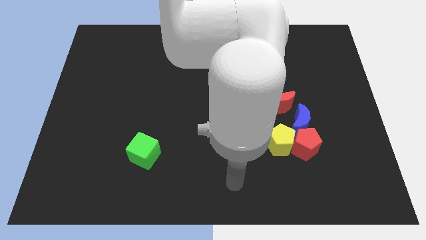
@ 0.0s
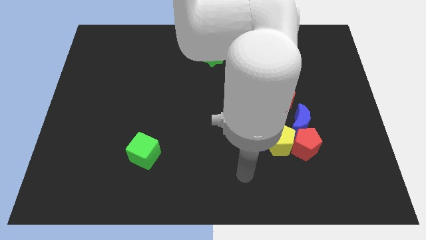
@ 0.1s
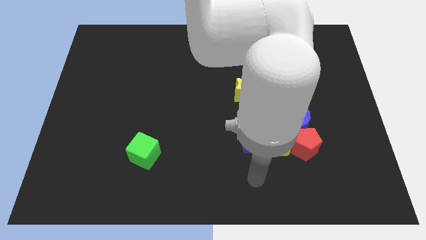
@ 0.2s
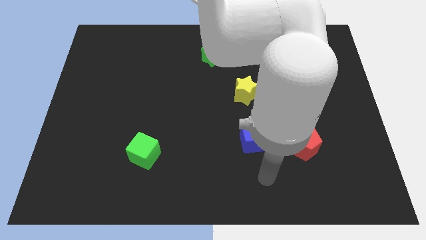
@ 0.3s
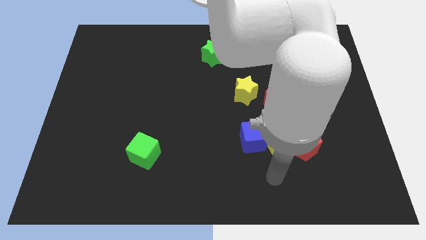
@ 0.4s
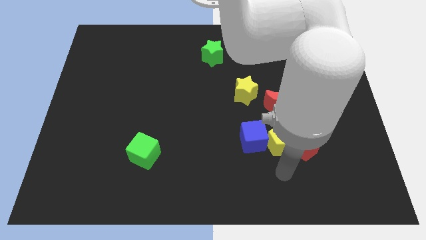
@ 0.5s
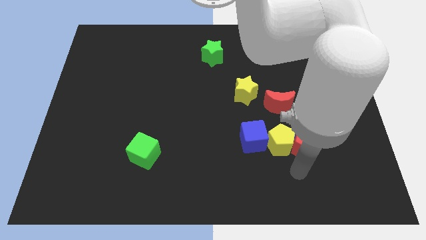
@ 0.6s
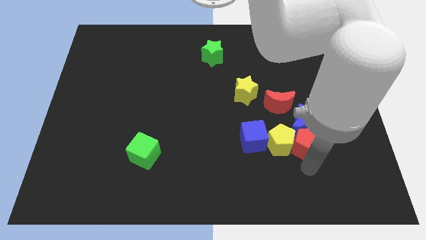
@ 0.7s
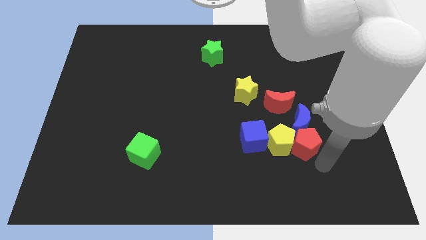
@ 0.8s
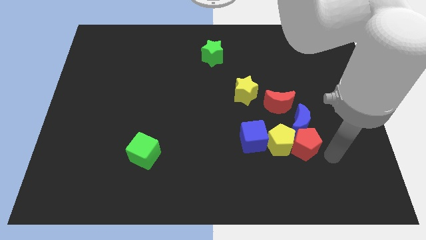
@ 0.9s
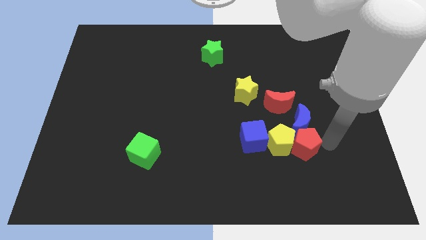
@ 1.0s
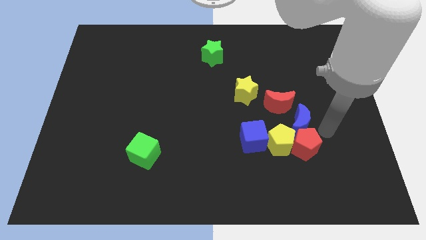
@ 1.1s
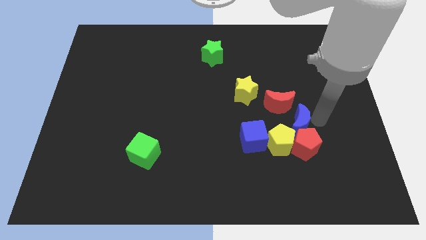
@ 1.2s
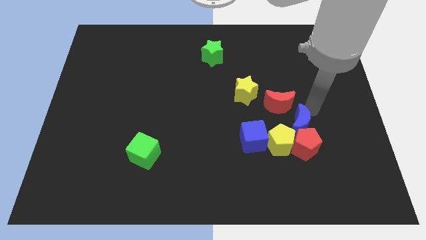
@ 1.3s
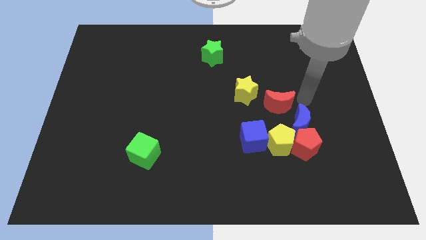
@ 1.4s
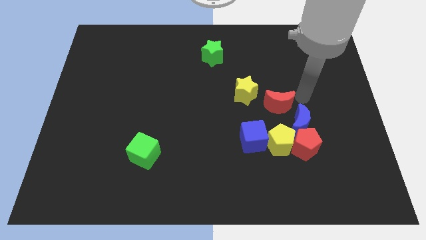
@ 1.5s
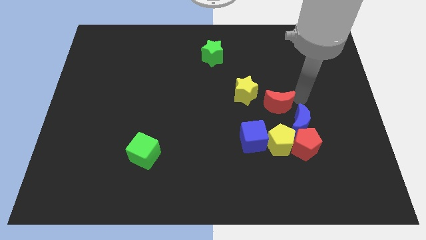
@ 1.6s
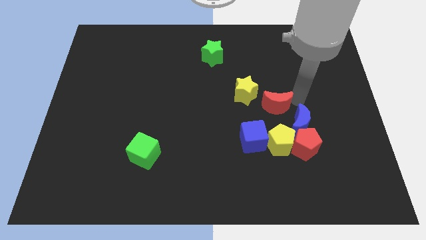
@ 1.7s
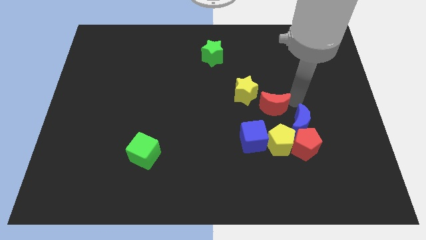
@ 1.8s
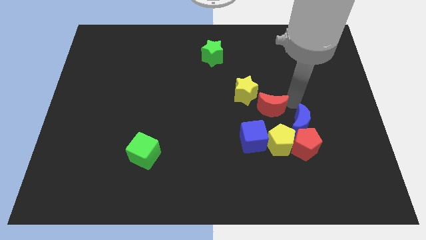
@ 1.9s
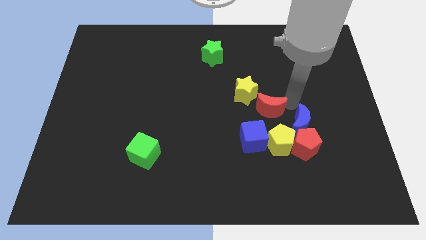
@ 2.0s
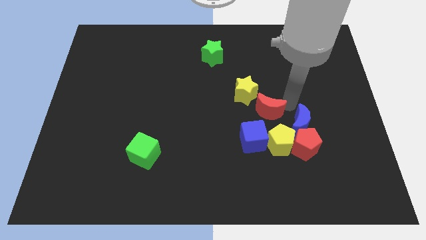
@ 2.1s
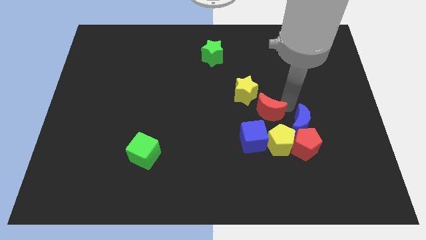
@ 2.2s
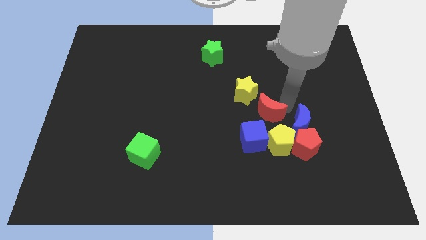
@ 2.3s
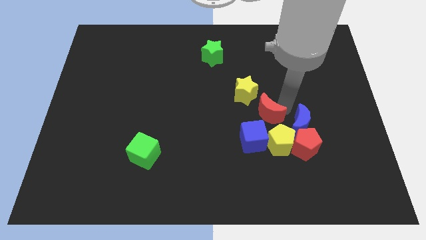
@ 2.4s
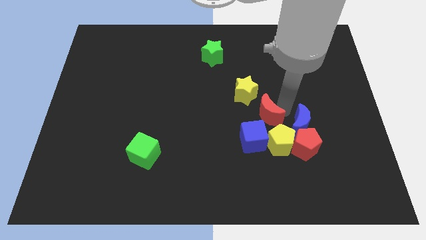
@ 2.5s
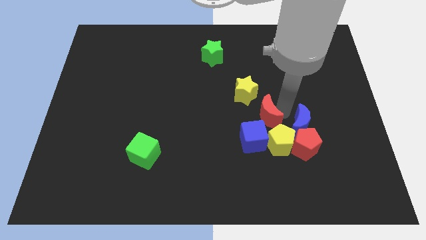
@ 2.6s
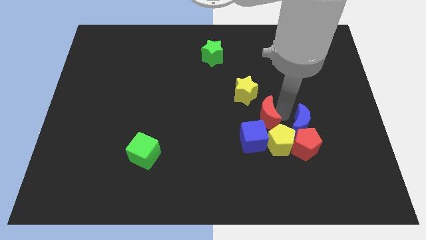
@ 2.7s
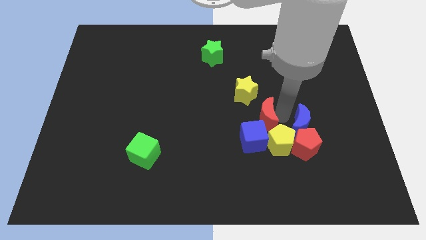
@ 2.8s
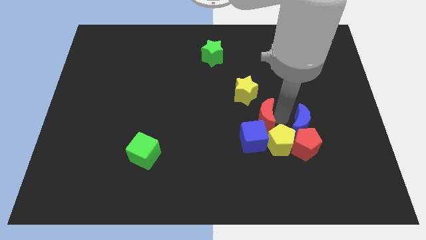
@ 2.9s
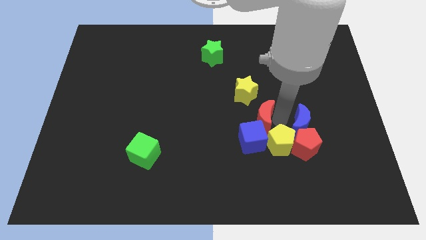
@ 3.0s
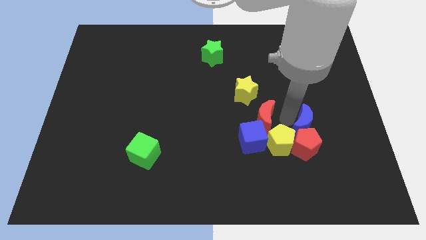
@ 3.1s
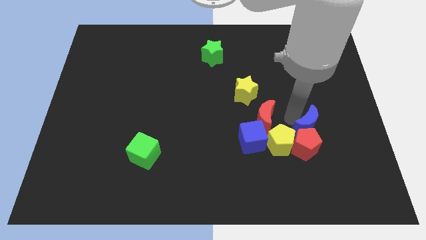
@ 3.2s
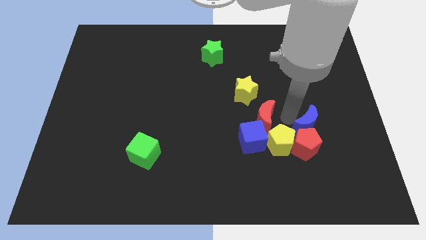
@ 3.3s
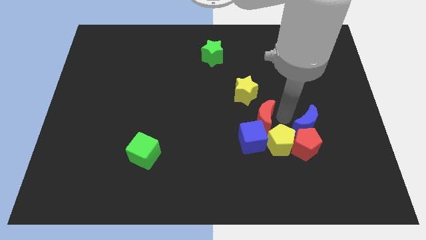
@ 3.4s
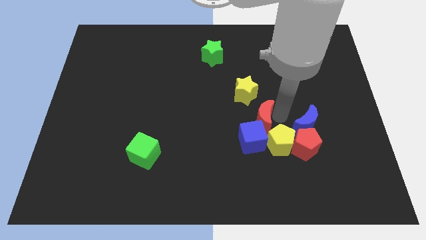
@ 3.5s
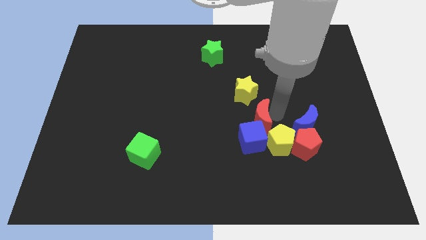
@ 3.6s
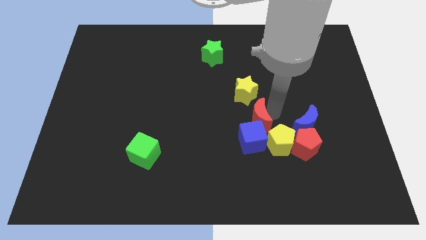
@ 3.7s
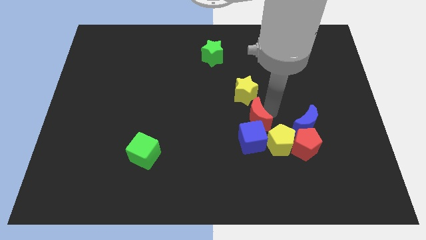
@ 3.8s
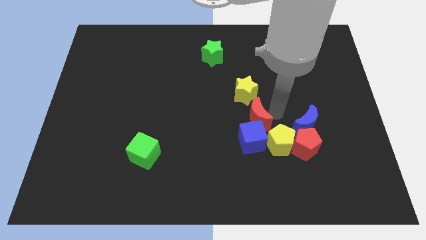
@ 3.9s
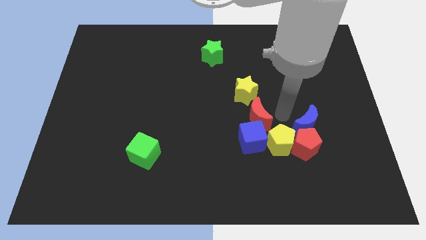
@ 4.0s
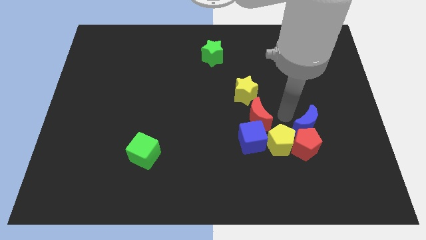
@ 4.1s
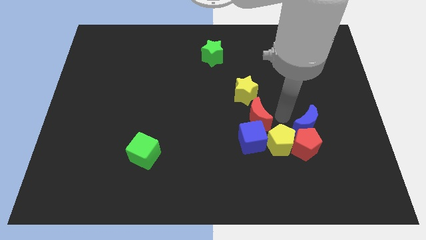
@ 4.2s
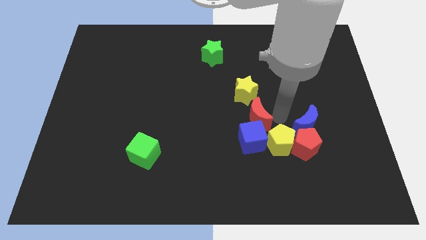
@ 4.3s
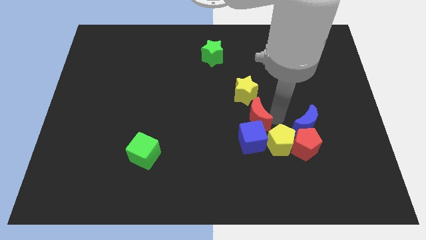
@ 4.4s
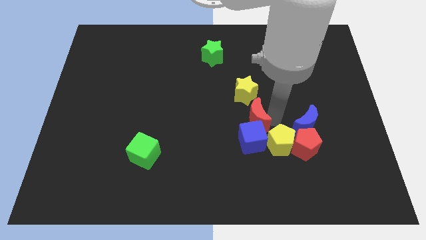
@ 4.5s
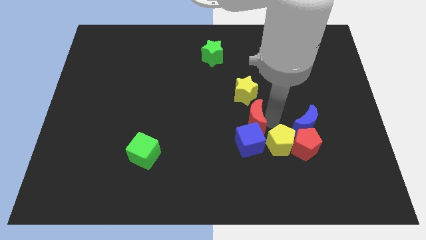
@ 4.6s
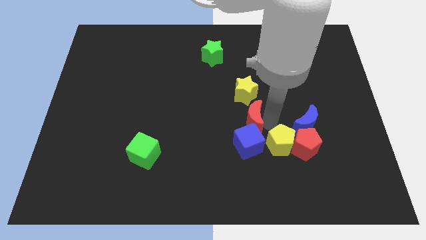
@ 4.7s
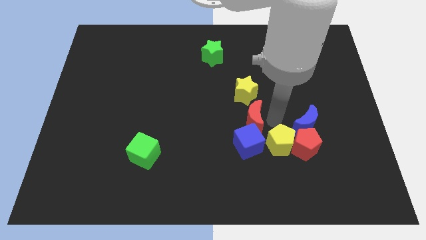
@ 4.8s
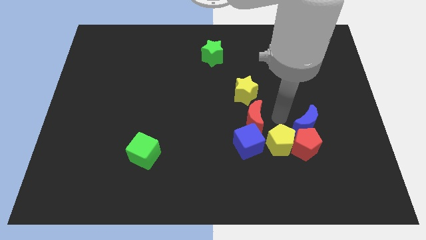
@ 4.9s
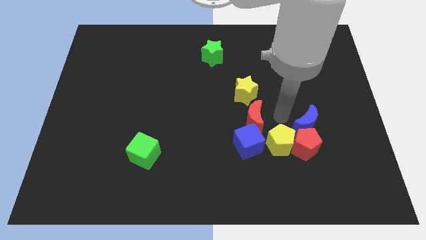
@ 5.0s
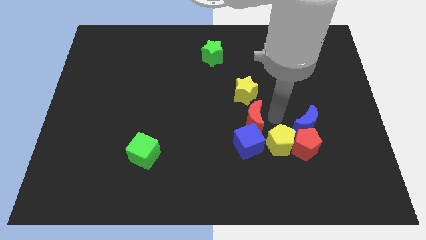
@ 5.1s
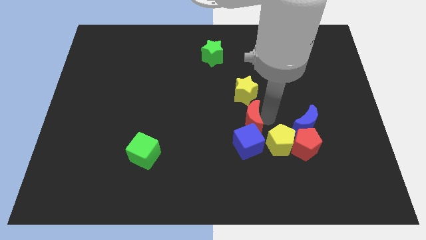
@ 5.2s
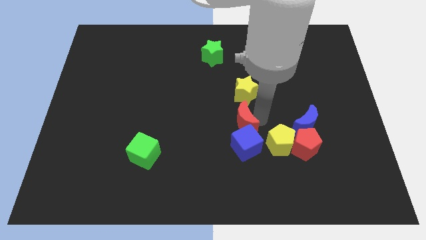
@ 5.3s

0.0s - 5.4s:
push the red moon diagonally up and to the left of the blue cube

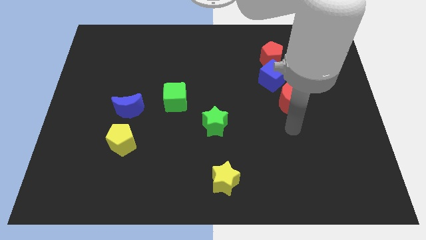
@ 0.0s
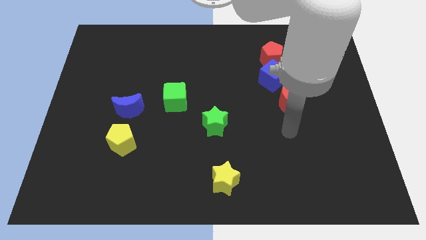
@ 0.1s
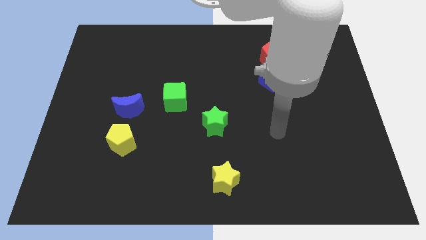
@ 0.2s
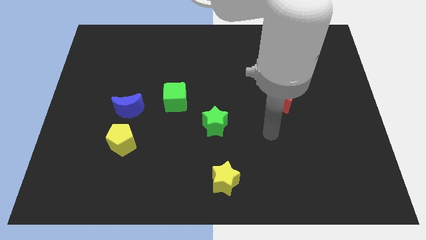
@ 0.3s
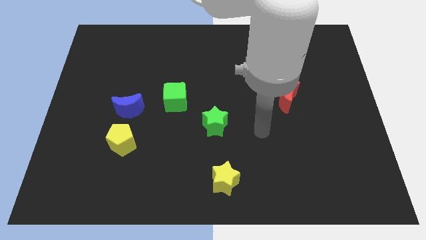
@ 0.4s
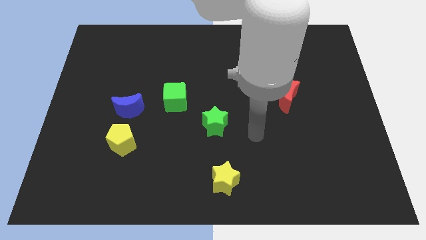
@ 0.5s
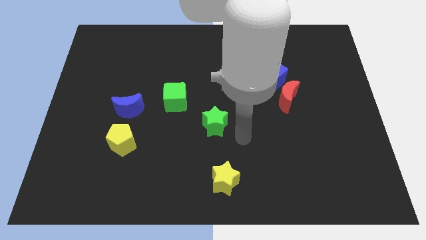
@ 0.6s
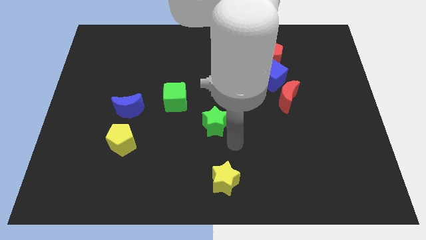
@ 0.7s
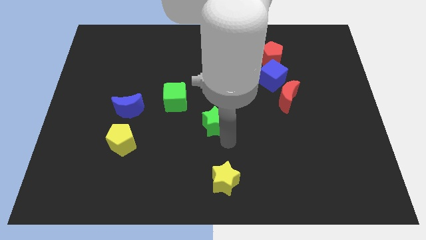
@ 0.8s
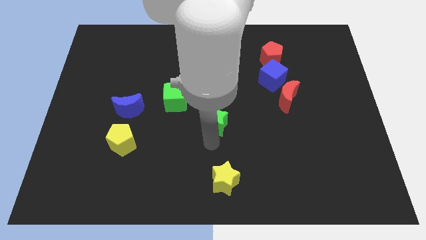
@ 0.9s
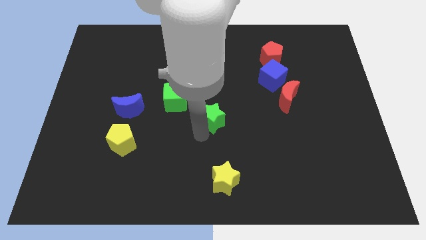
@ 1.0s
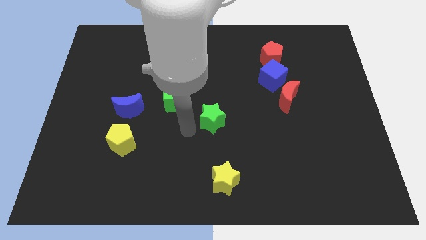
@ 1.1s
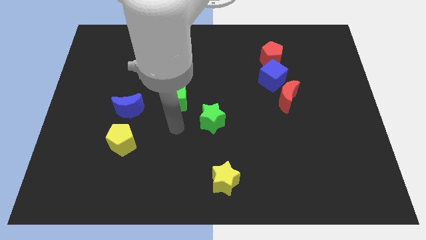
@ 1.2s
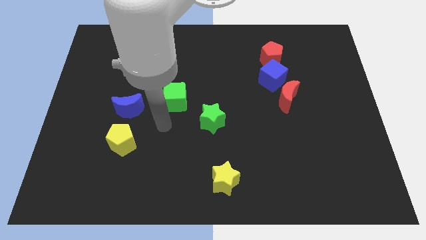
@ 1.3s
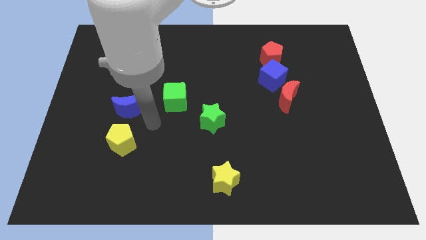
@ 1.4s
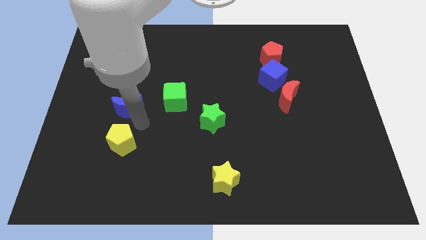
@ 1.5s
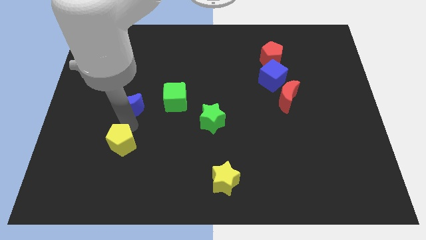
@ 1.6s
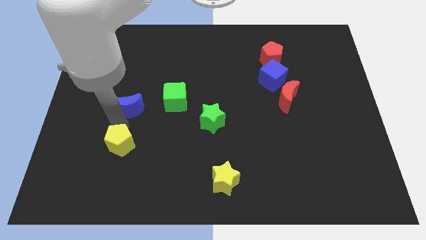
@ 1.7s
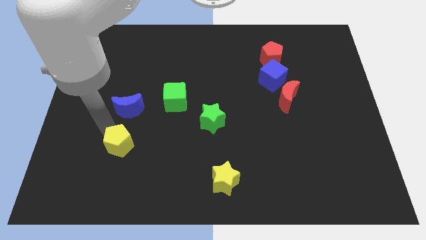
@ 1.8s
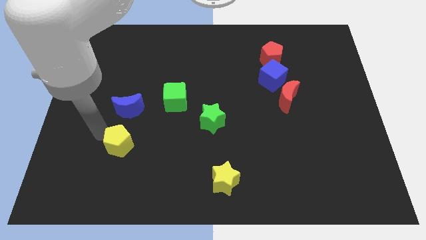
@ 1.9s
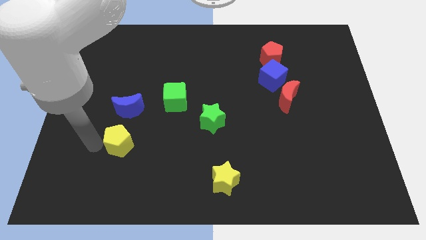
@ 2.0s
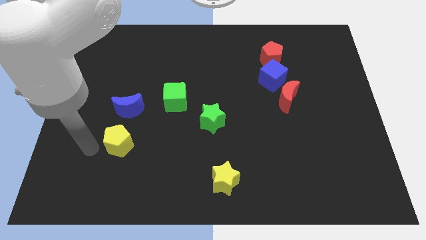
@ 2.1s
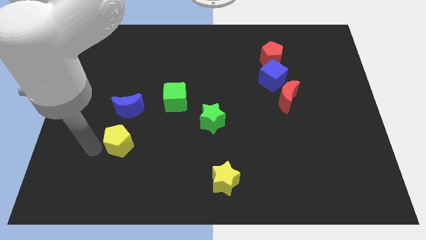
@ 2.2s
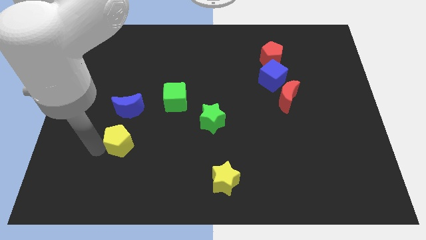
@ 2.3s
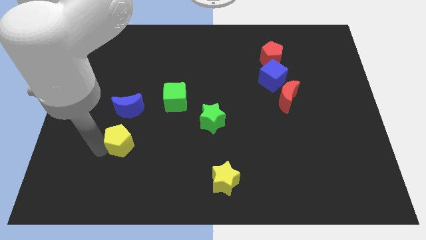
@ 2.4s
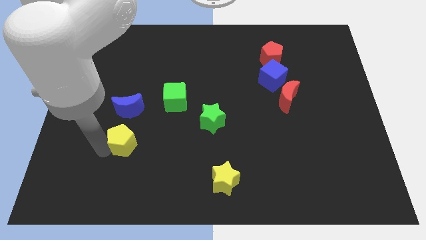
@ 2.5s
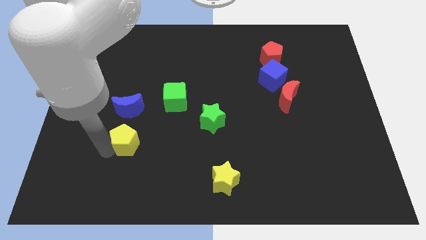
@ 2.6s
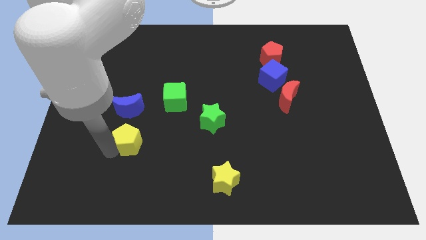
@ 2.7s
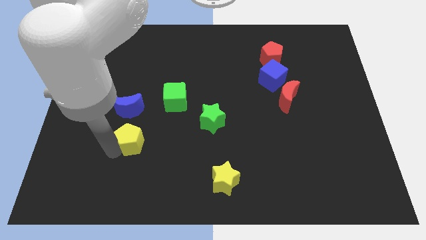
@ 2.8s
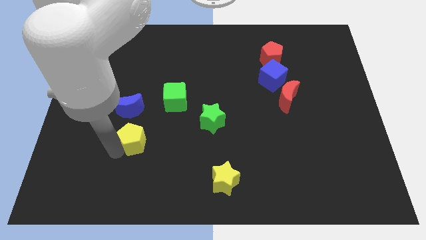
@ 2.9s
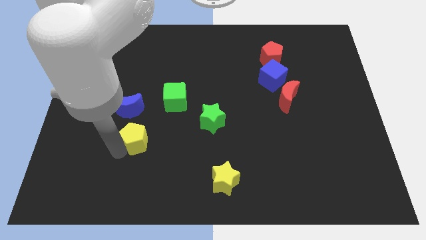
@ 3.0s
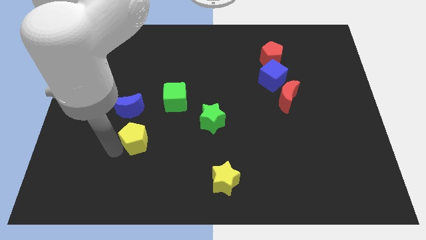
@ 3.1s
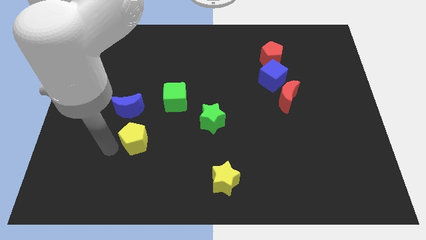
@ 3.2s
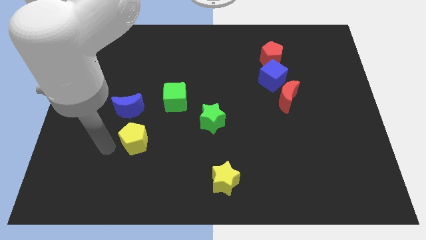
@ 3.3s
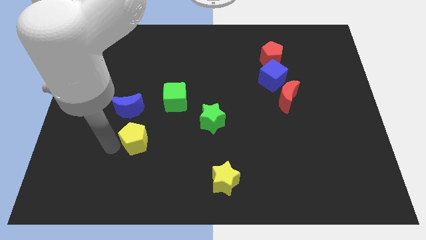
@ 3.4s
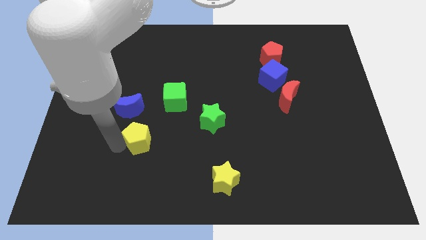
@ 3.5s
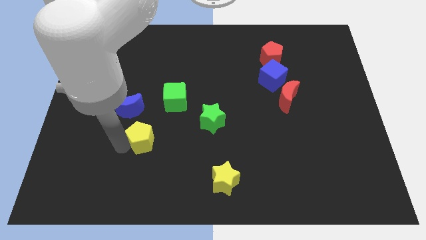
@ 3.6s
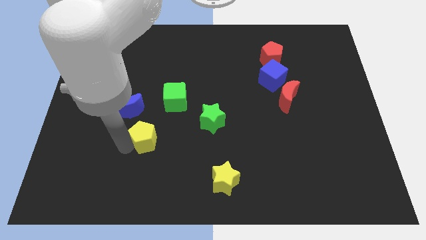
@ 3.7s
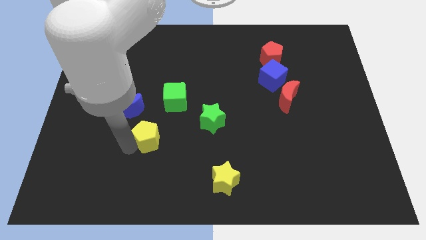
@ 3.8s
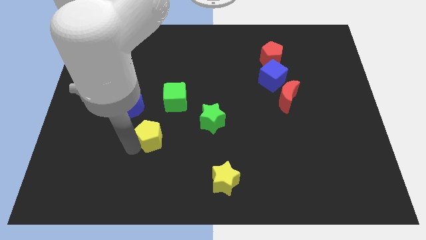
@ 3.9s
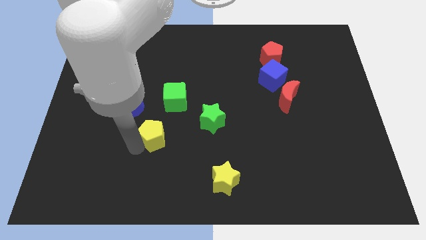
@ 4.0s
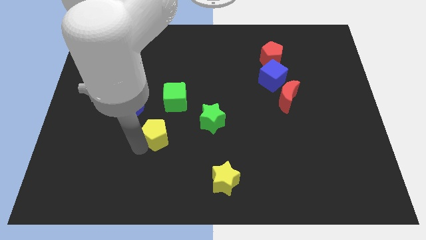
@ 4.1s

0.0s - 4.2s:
push the yellow pentagon to the left side of the green star
